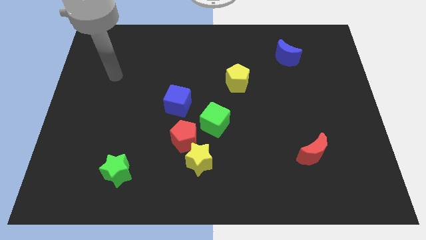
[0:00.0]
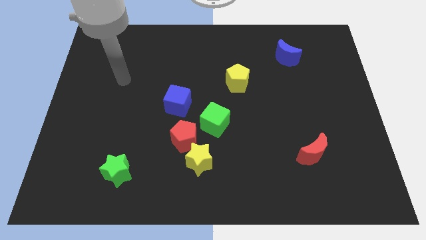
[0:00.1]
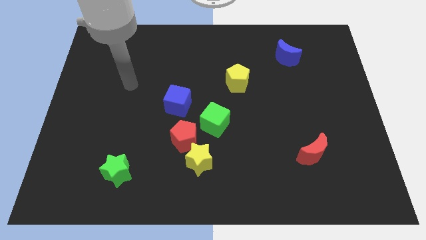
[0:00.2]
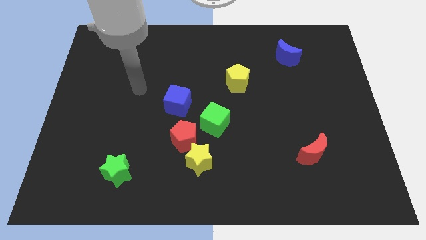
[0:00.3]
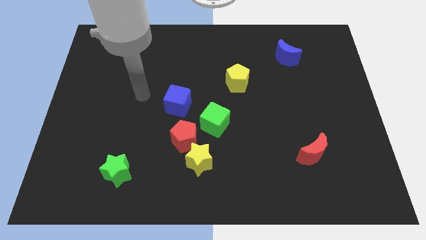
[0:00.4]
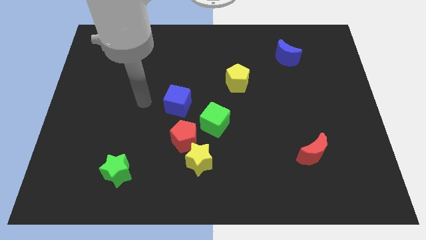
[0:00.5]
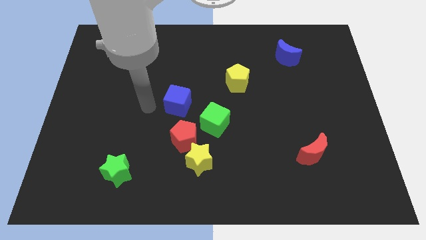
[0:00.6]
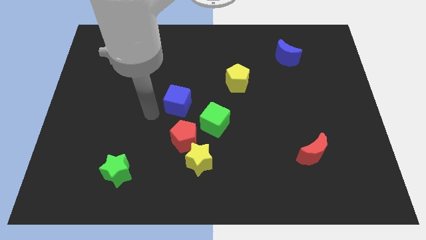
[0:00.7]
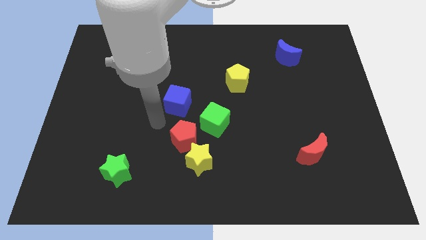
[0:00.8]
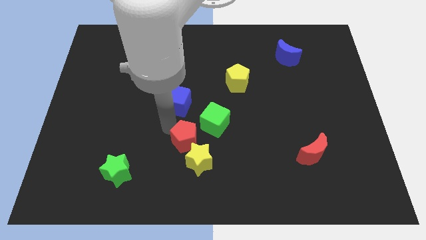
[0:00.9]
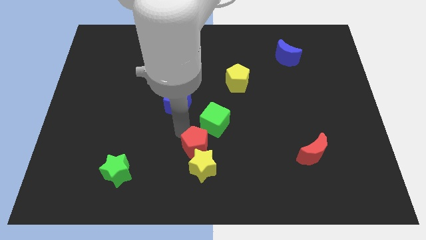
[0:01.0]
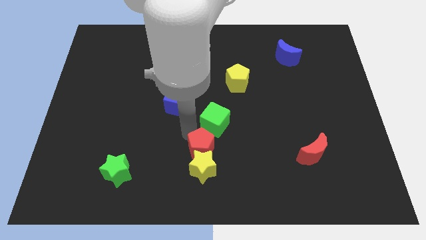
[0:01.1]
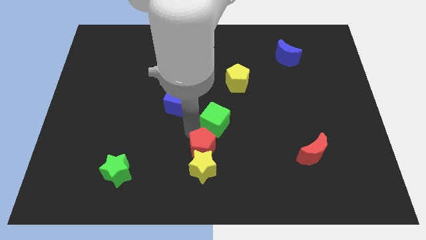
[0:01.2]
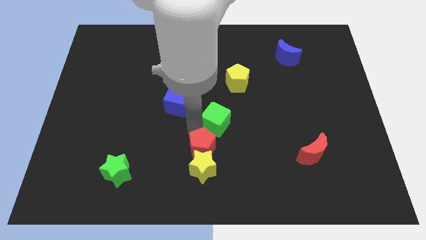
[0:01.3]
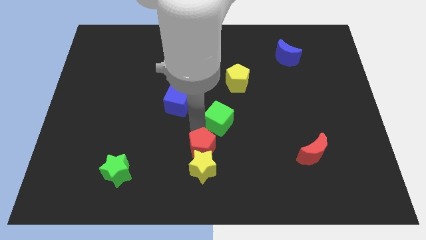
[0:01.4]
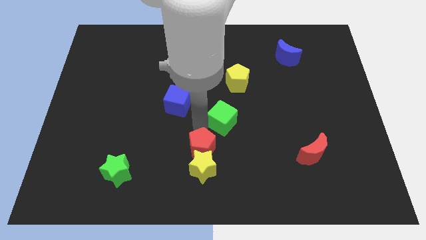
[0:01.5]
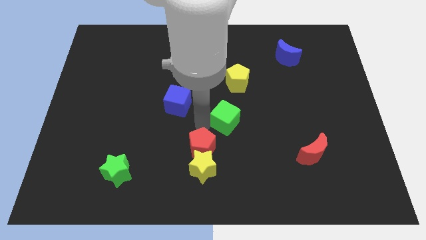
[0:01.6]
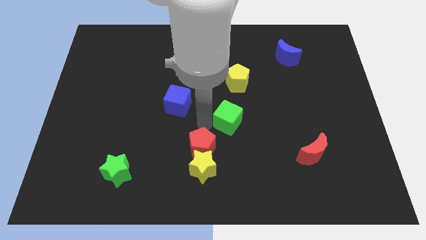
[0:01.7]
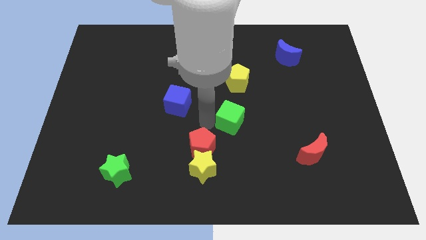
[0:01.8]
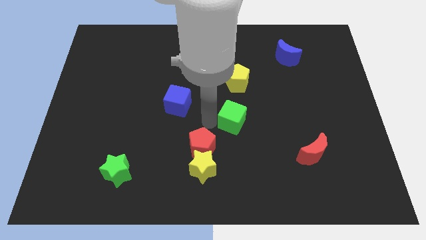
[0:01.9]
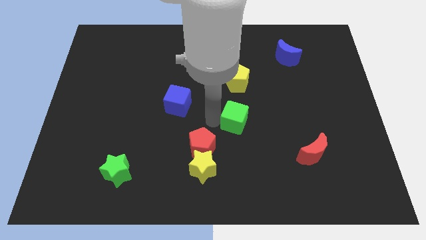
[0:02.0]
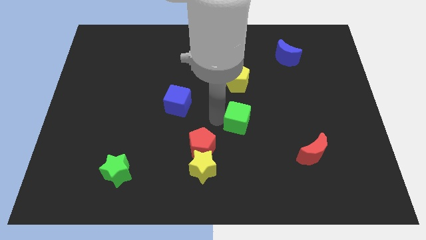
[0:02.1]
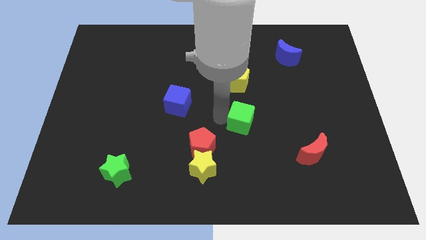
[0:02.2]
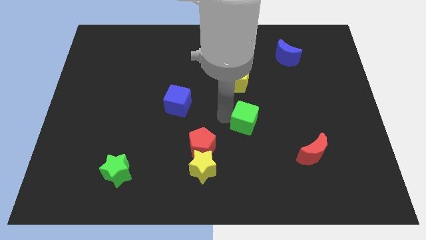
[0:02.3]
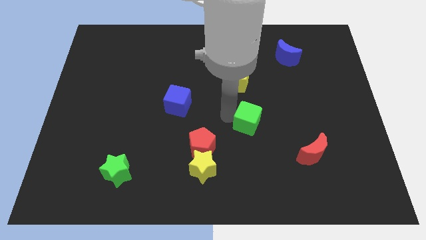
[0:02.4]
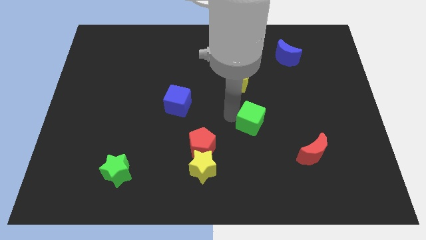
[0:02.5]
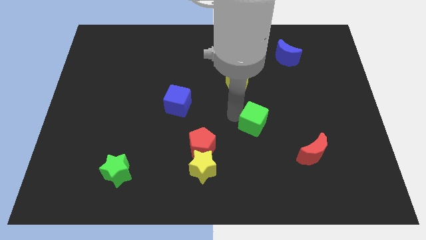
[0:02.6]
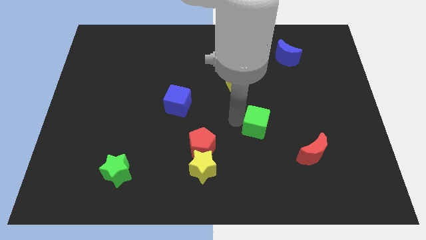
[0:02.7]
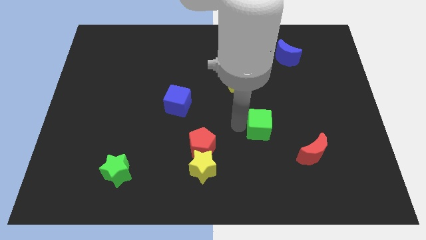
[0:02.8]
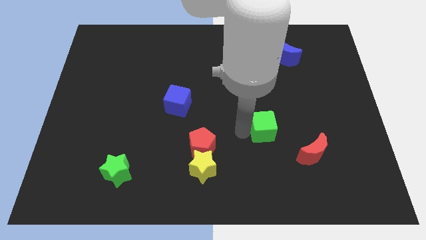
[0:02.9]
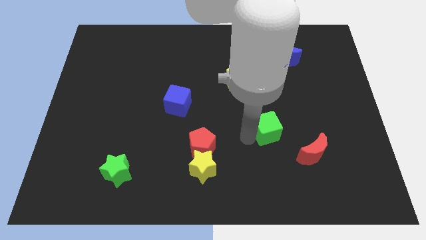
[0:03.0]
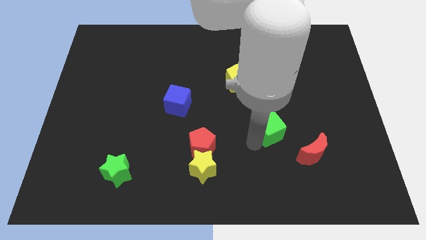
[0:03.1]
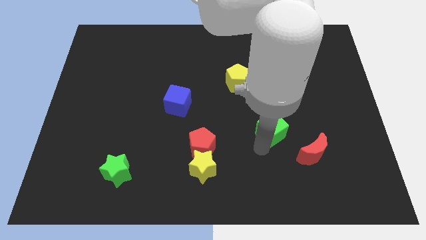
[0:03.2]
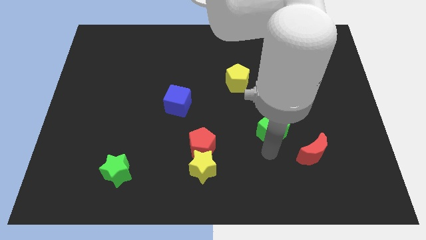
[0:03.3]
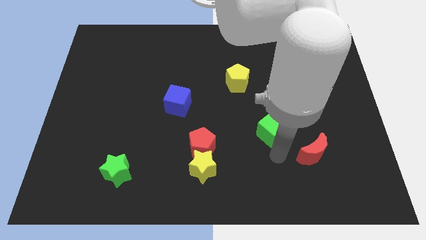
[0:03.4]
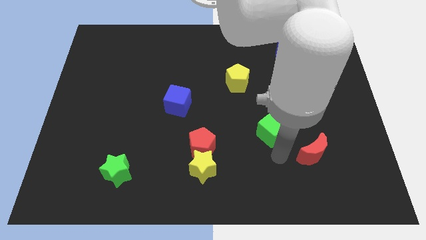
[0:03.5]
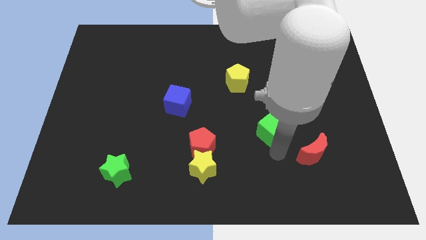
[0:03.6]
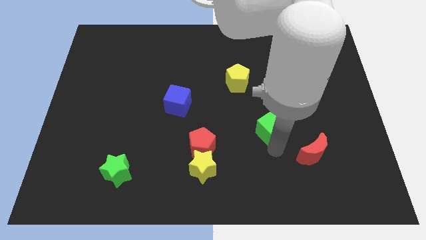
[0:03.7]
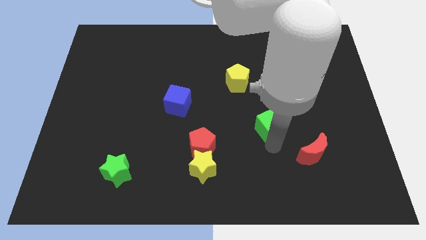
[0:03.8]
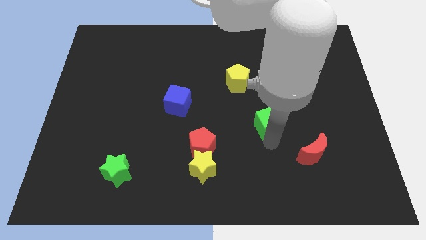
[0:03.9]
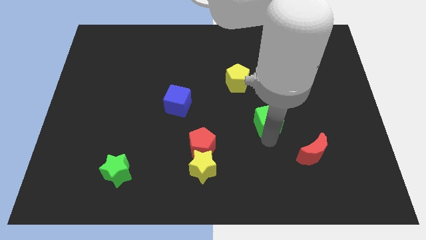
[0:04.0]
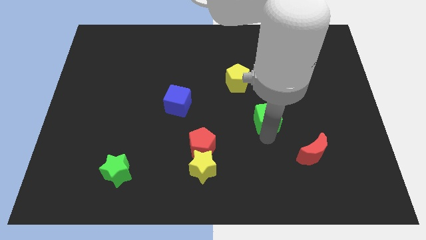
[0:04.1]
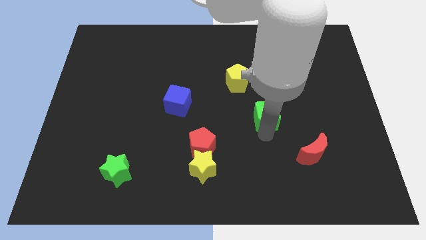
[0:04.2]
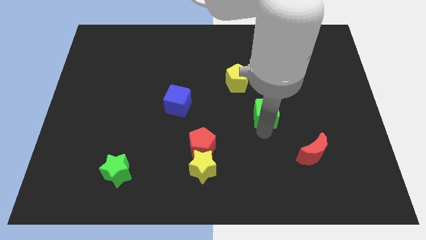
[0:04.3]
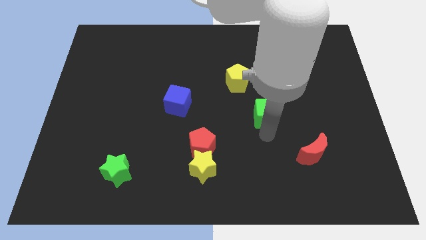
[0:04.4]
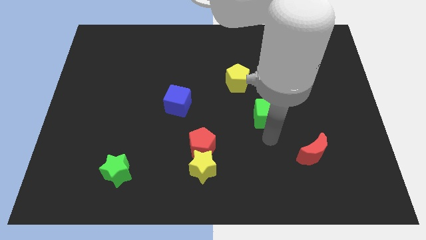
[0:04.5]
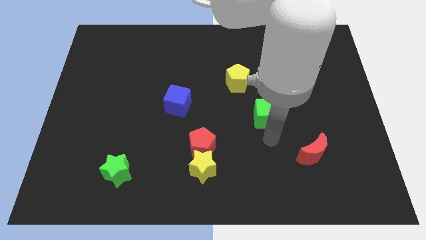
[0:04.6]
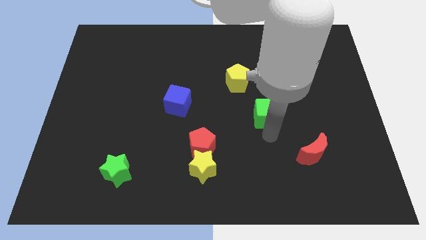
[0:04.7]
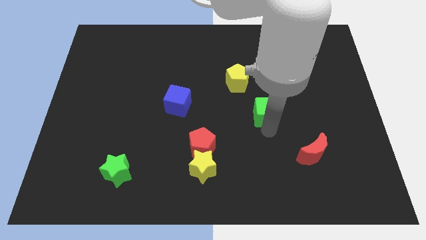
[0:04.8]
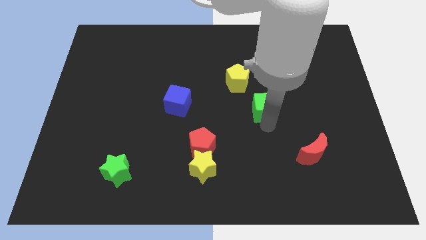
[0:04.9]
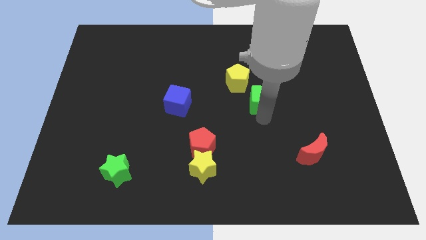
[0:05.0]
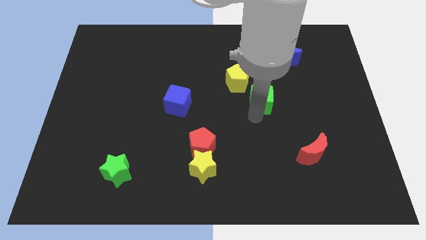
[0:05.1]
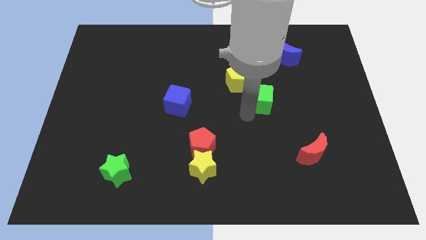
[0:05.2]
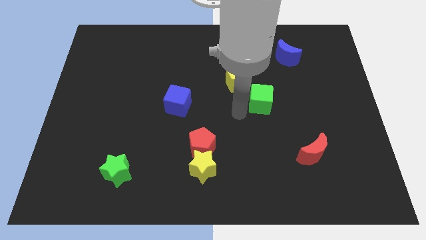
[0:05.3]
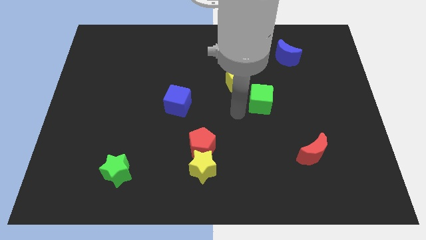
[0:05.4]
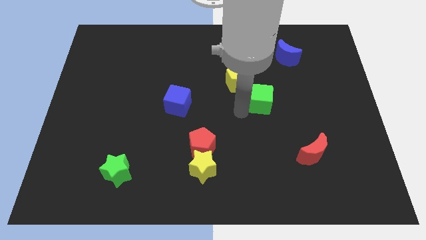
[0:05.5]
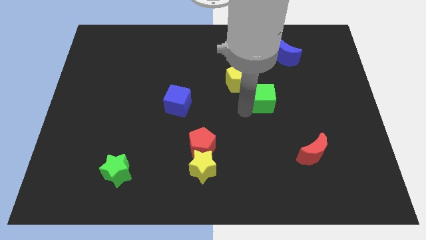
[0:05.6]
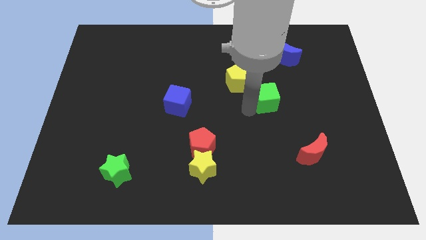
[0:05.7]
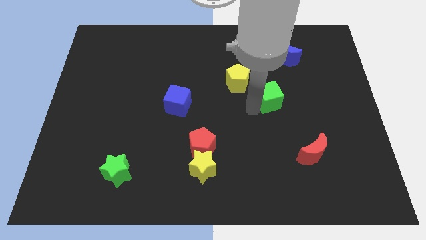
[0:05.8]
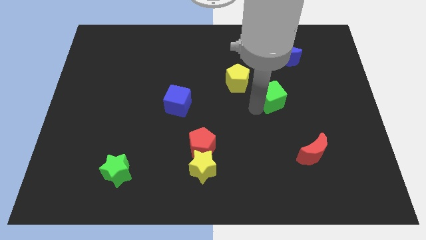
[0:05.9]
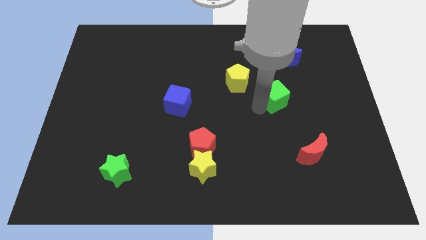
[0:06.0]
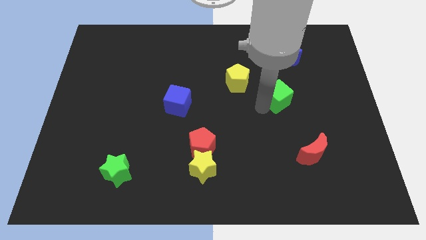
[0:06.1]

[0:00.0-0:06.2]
push the green cube to the bottom side of the blue moon

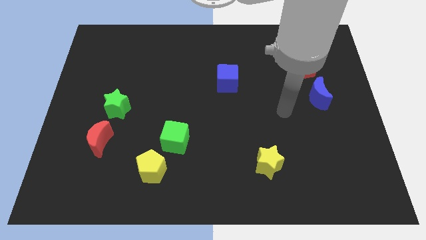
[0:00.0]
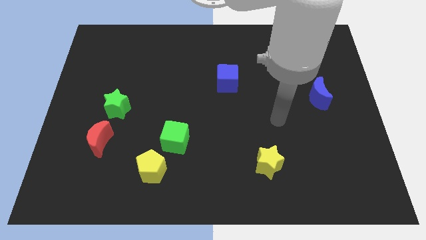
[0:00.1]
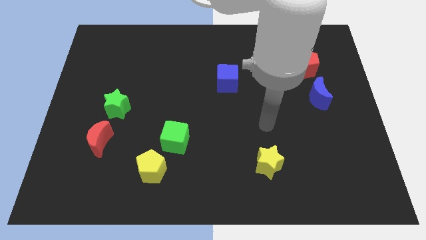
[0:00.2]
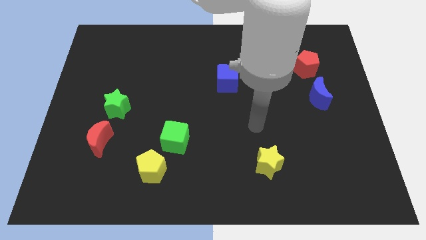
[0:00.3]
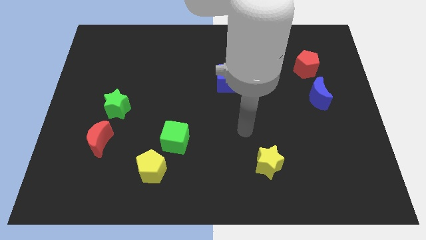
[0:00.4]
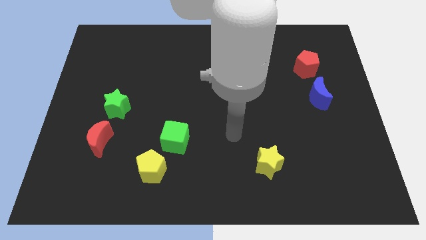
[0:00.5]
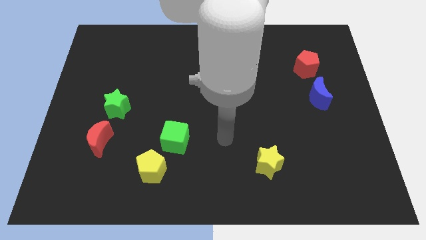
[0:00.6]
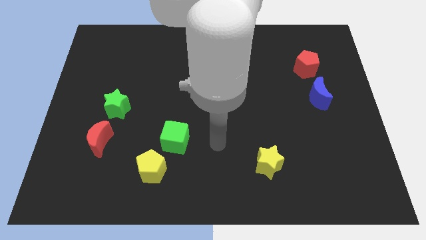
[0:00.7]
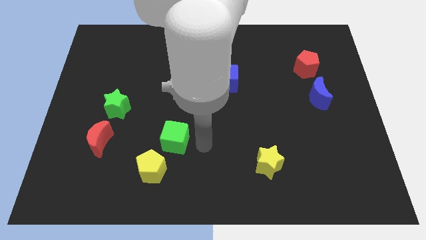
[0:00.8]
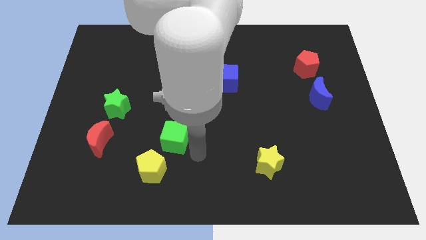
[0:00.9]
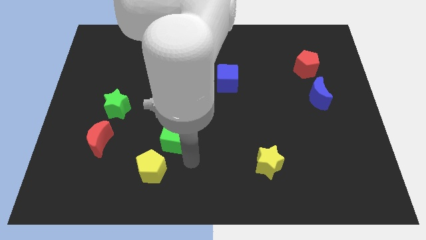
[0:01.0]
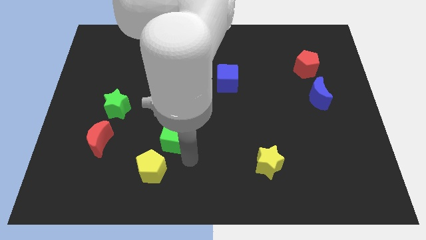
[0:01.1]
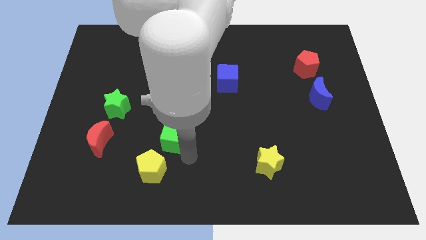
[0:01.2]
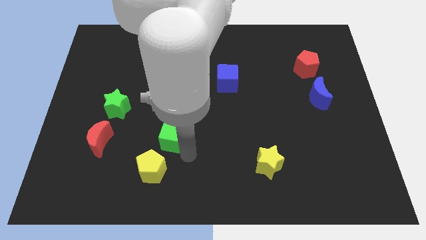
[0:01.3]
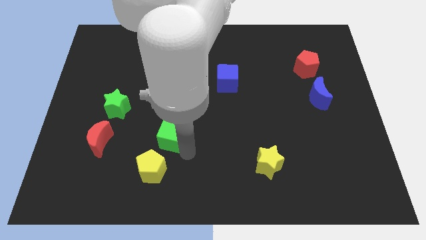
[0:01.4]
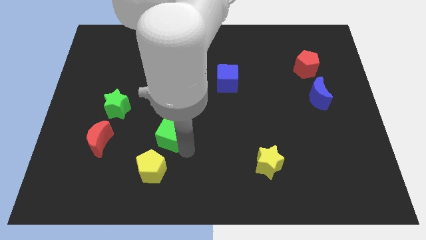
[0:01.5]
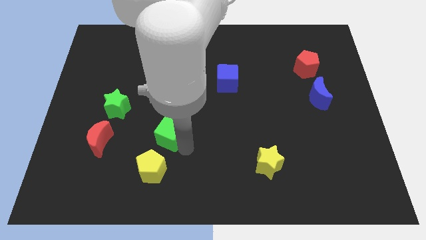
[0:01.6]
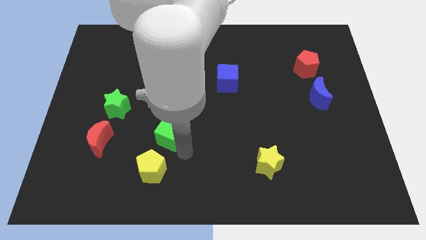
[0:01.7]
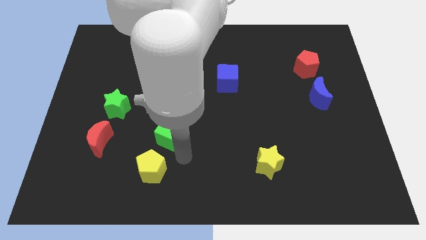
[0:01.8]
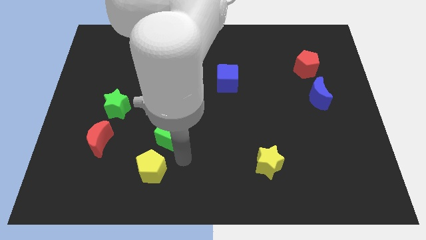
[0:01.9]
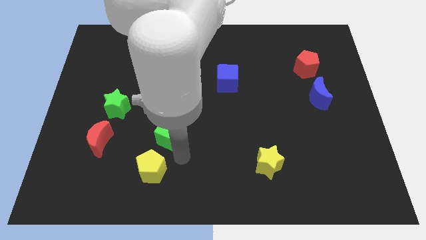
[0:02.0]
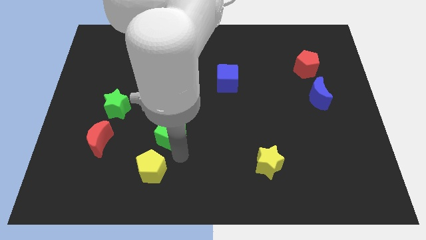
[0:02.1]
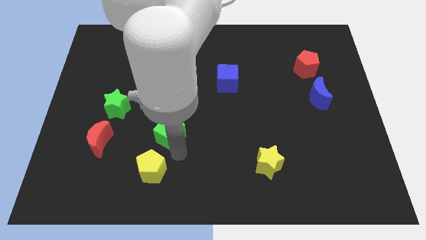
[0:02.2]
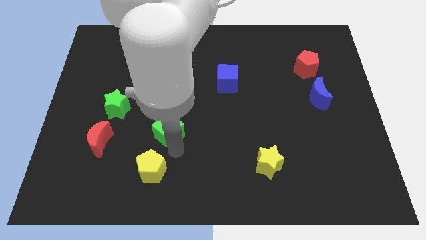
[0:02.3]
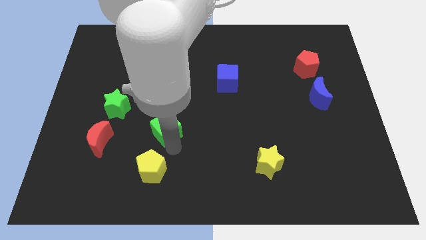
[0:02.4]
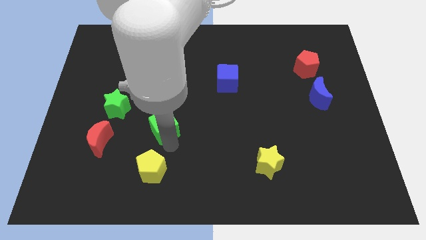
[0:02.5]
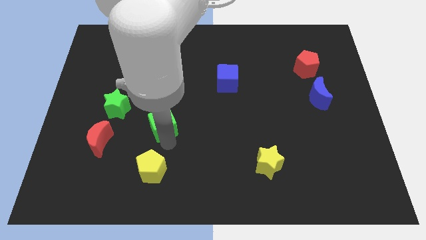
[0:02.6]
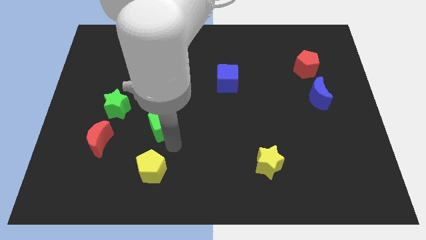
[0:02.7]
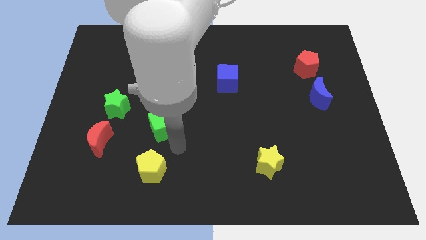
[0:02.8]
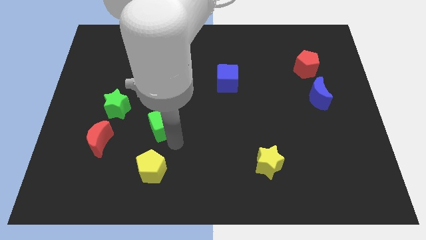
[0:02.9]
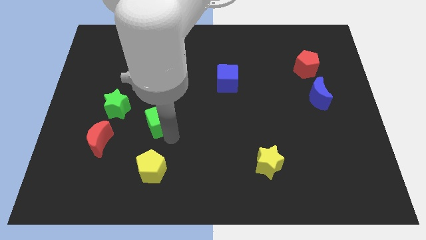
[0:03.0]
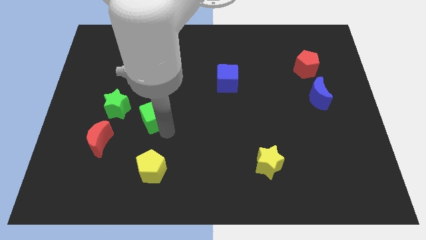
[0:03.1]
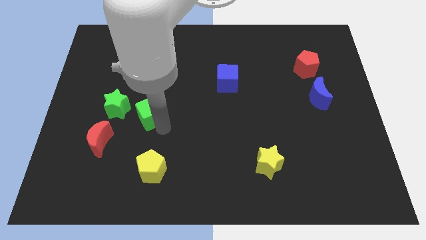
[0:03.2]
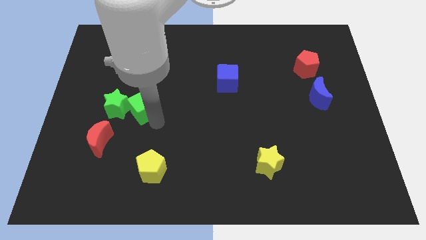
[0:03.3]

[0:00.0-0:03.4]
push the green cube to the top right of the green star
